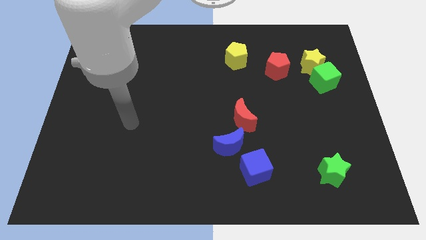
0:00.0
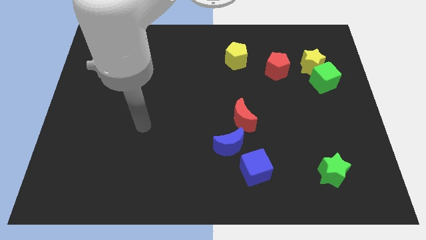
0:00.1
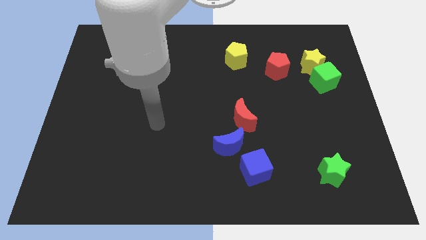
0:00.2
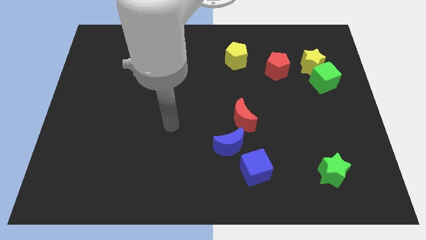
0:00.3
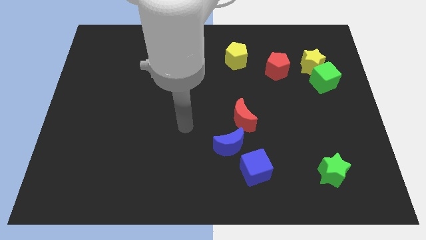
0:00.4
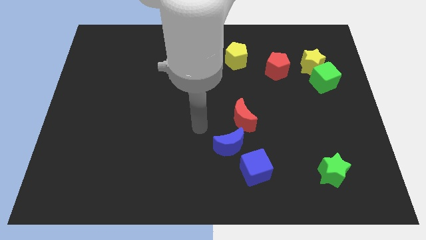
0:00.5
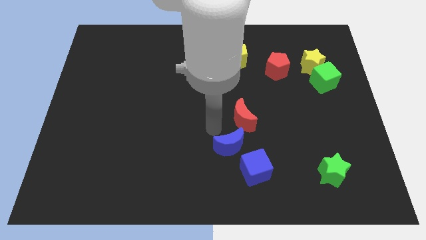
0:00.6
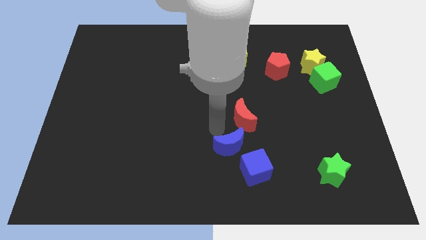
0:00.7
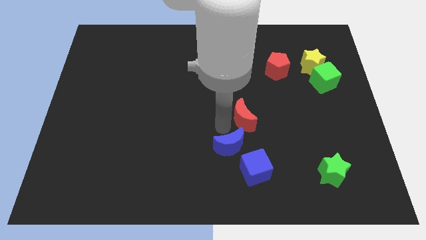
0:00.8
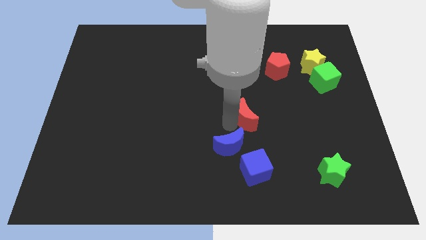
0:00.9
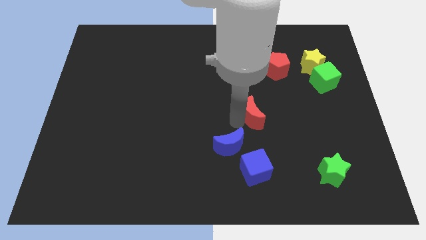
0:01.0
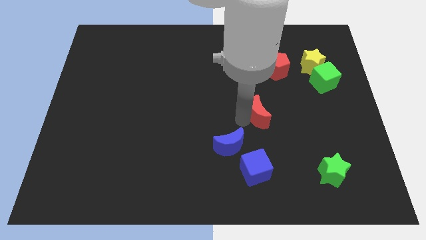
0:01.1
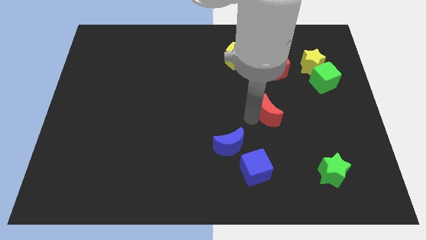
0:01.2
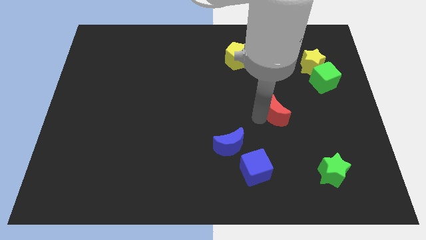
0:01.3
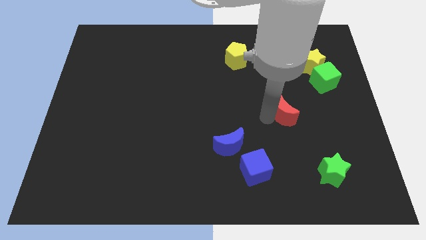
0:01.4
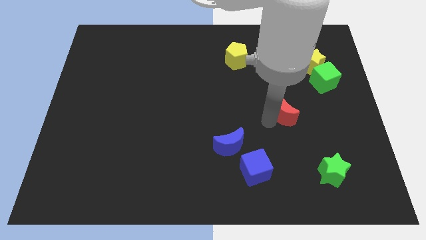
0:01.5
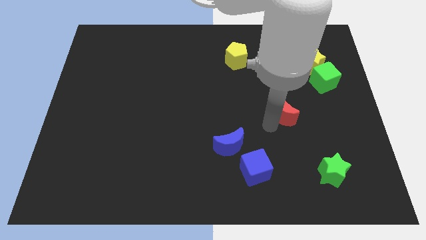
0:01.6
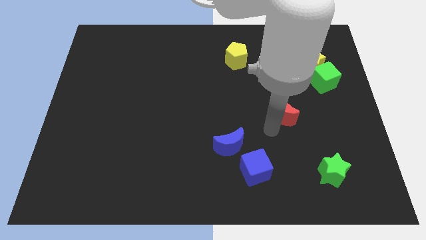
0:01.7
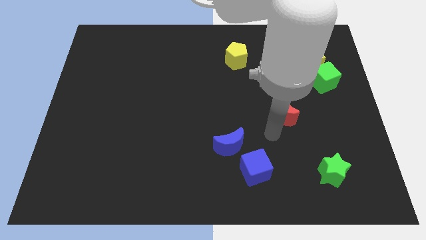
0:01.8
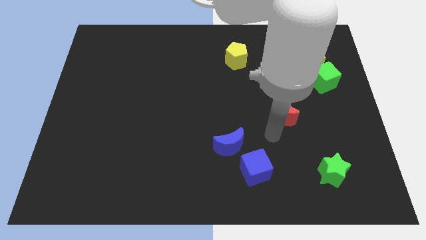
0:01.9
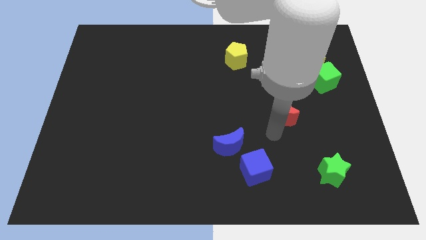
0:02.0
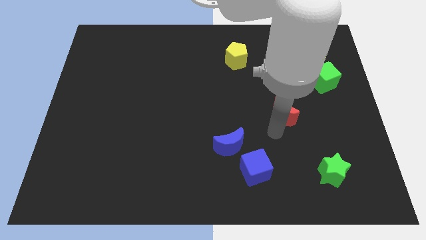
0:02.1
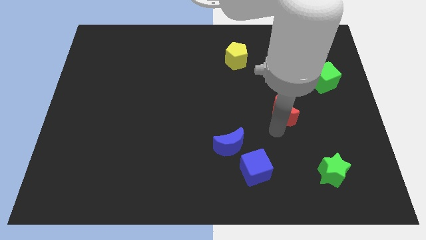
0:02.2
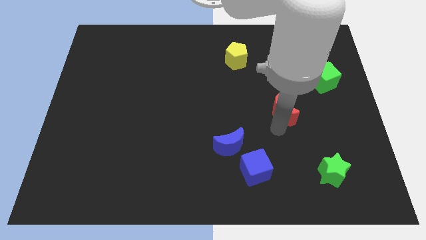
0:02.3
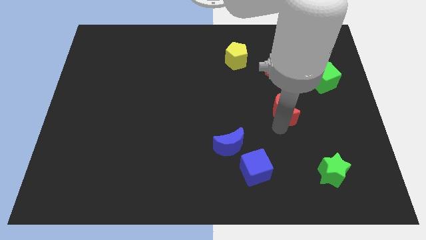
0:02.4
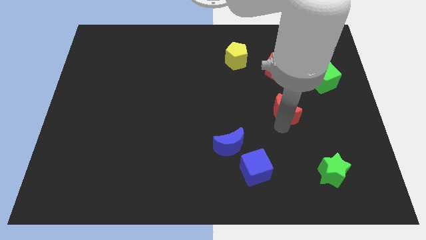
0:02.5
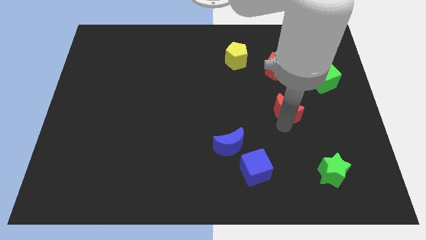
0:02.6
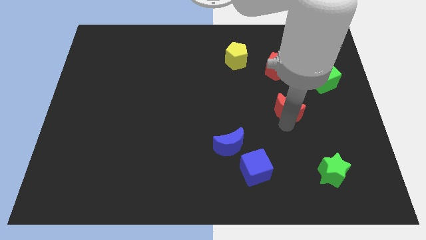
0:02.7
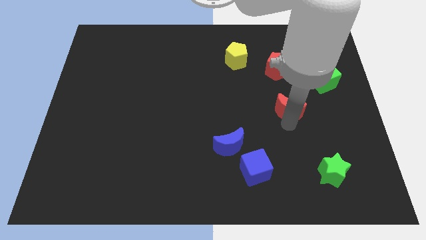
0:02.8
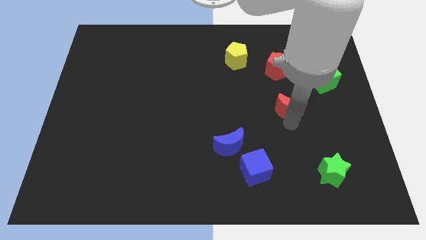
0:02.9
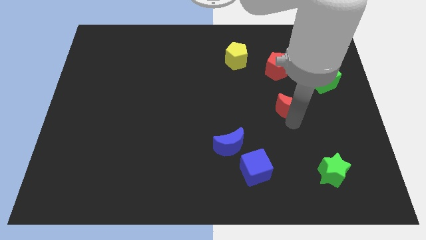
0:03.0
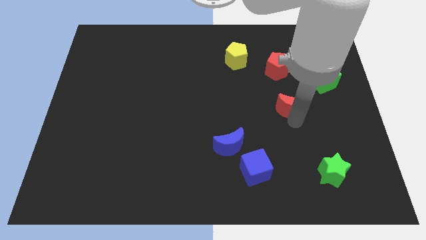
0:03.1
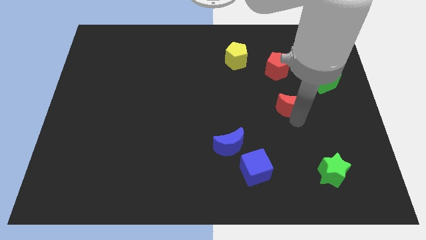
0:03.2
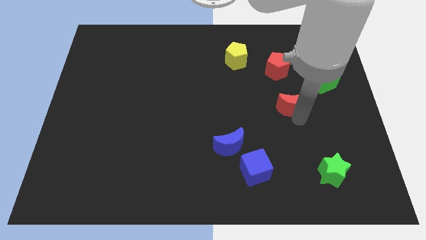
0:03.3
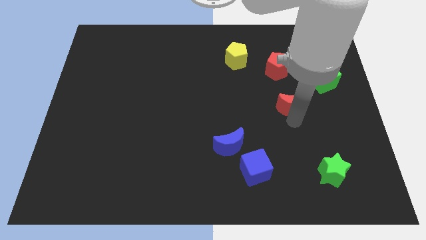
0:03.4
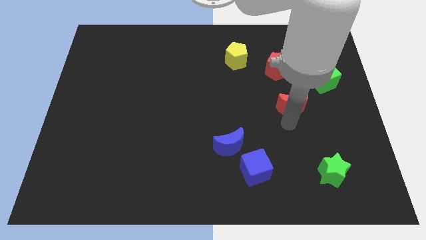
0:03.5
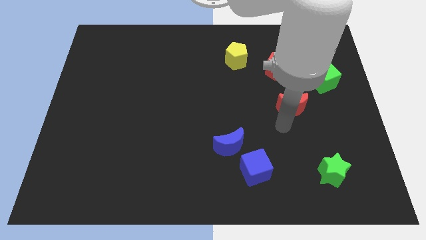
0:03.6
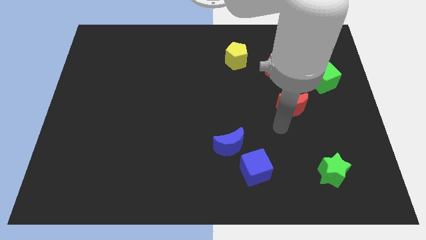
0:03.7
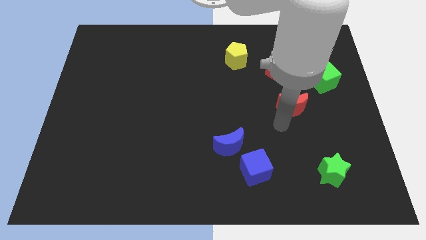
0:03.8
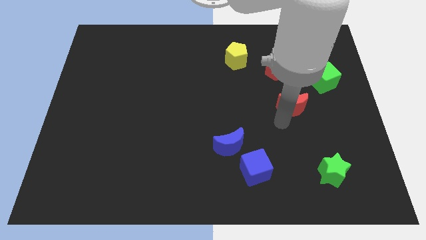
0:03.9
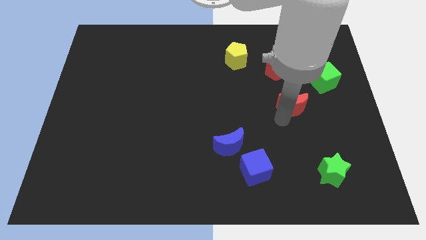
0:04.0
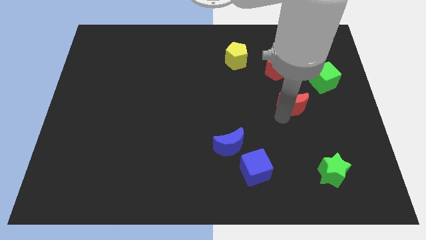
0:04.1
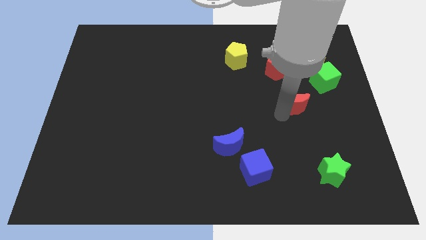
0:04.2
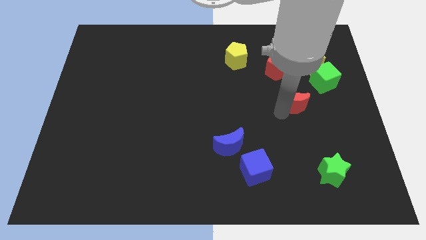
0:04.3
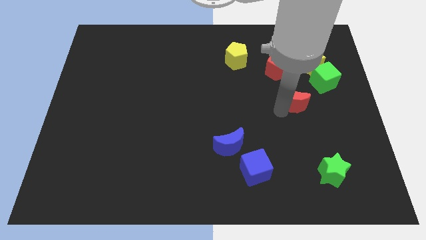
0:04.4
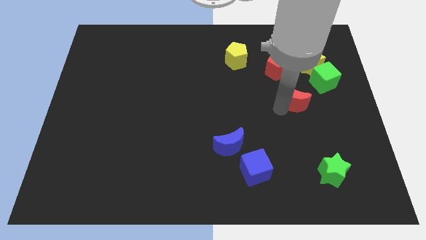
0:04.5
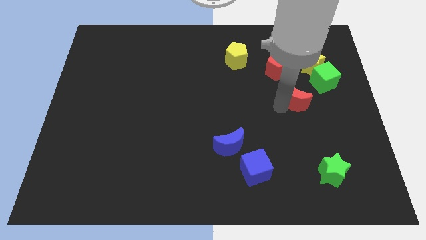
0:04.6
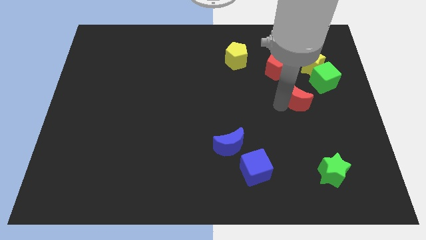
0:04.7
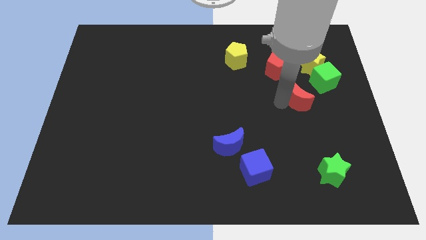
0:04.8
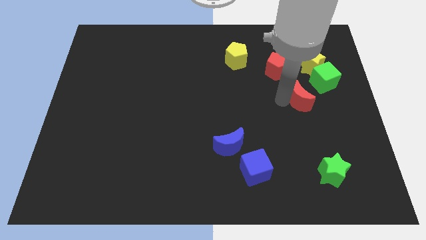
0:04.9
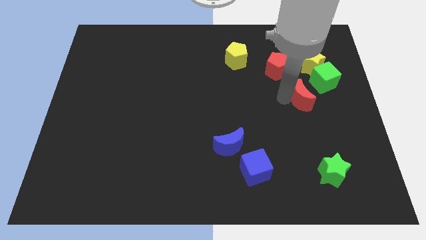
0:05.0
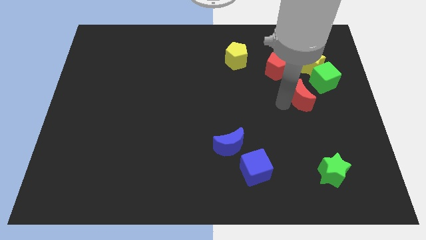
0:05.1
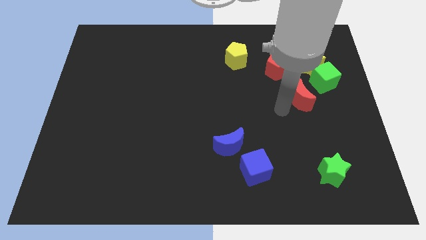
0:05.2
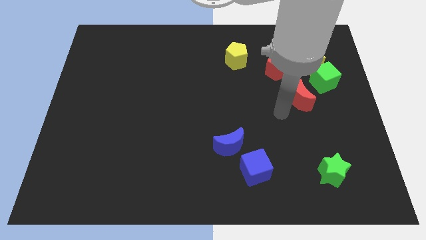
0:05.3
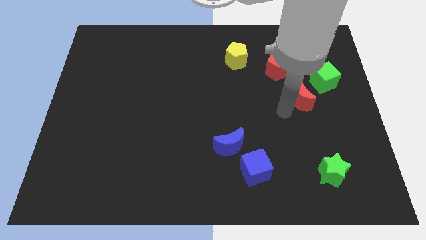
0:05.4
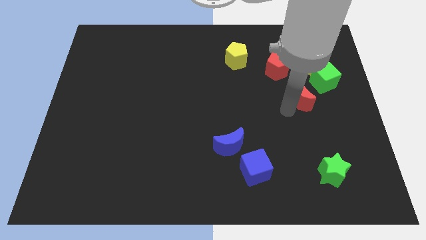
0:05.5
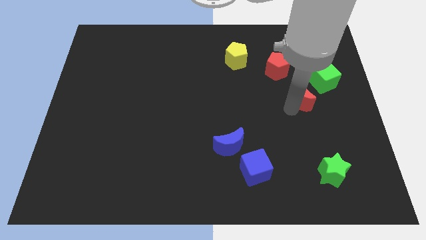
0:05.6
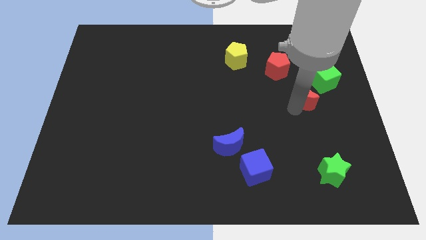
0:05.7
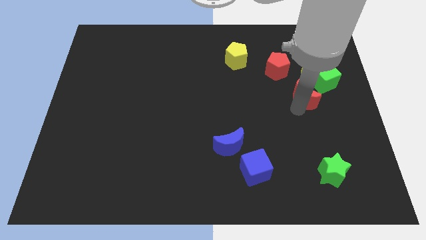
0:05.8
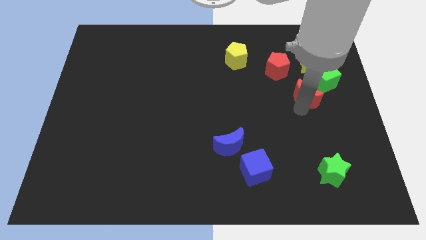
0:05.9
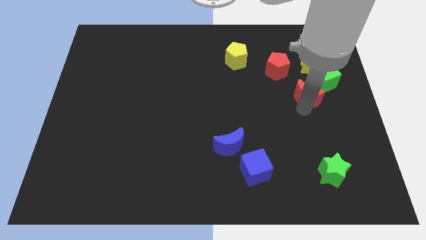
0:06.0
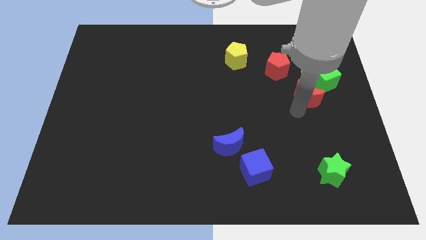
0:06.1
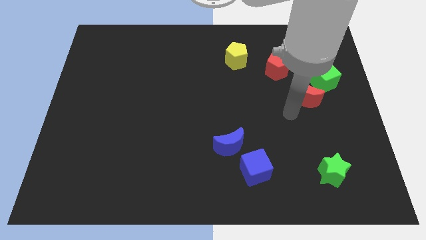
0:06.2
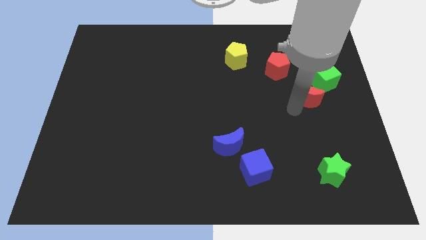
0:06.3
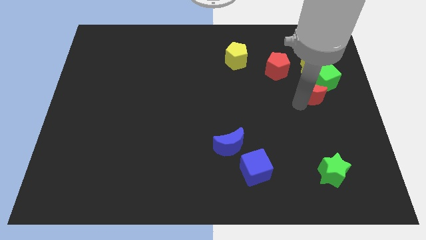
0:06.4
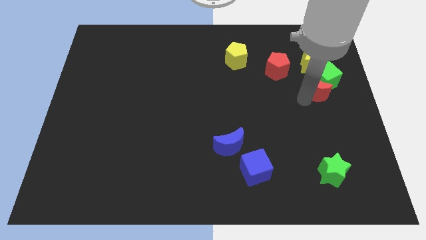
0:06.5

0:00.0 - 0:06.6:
move the red moon next to the green cube
